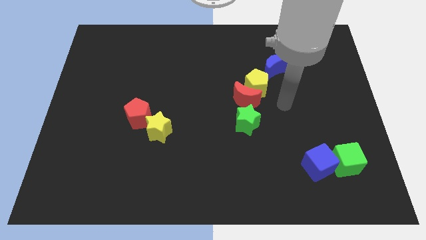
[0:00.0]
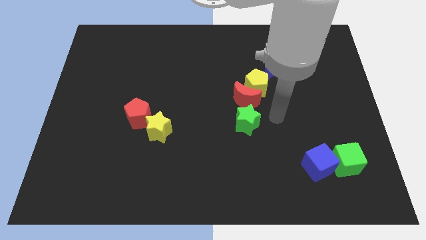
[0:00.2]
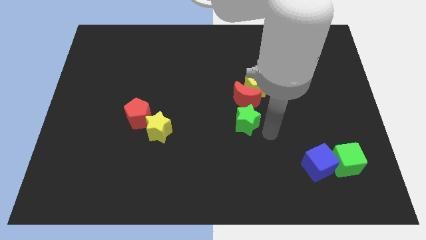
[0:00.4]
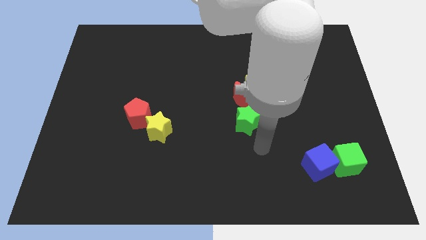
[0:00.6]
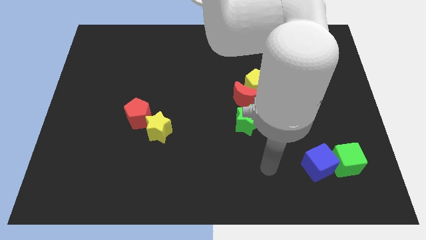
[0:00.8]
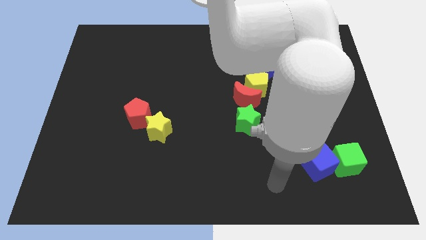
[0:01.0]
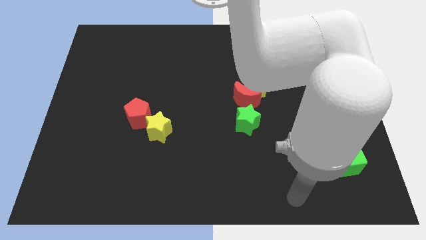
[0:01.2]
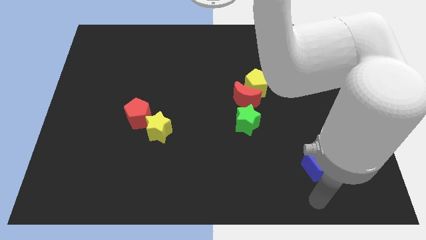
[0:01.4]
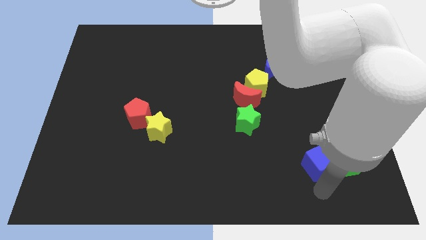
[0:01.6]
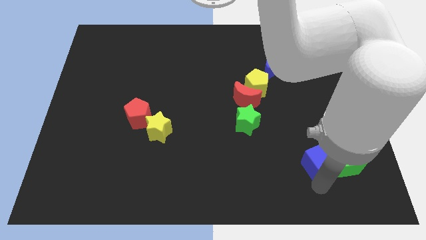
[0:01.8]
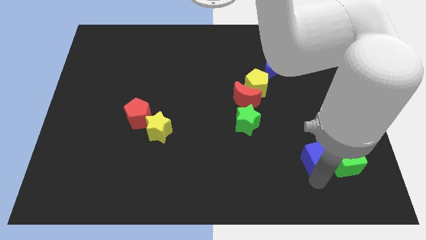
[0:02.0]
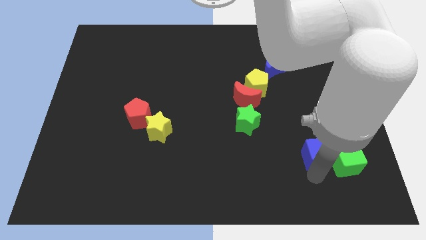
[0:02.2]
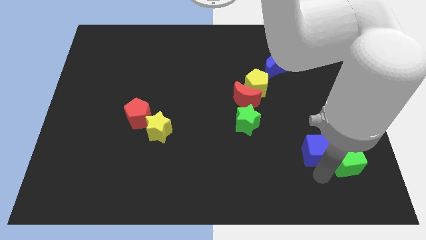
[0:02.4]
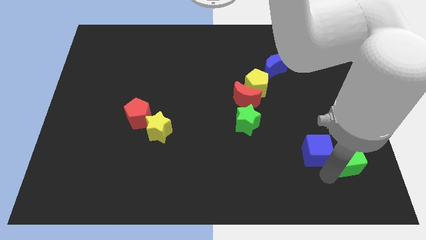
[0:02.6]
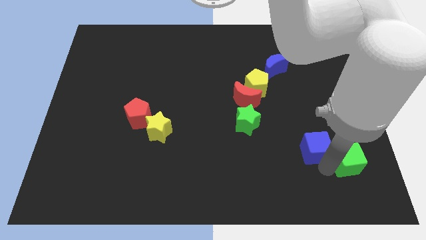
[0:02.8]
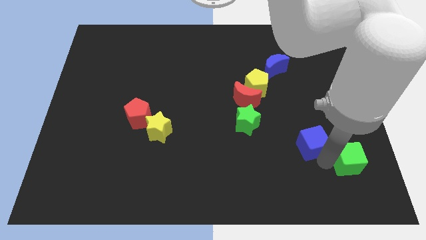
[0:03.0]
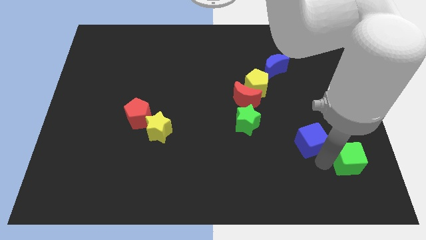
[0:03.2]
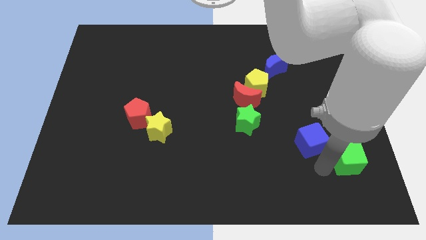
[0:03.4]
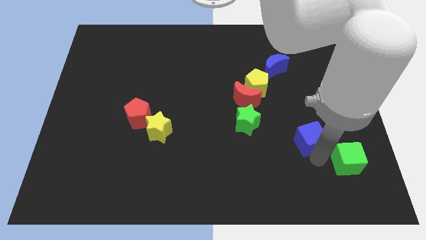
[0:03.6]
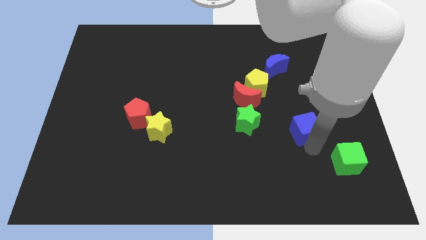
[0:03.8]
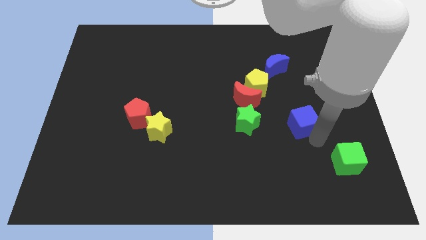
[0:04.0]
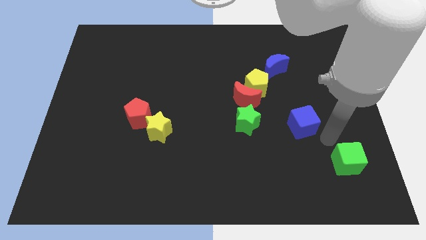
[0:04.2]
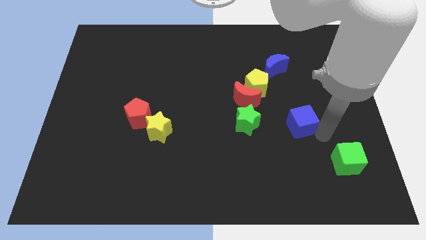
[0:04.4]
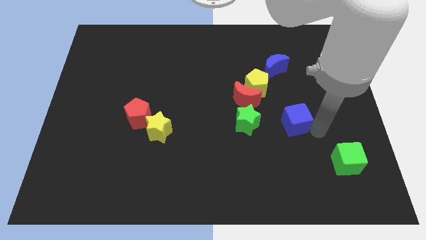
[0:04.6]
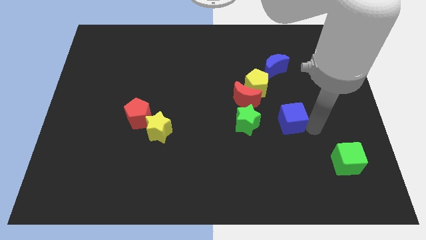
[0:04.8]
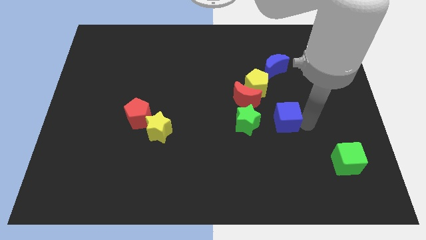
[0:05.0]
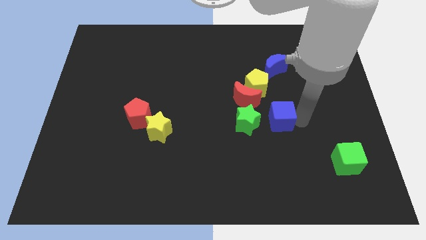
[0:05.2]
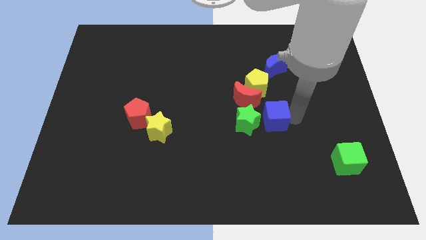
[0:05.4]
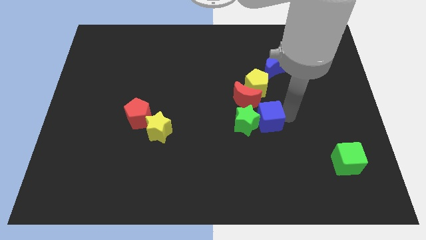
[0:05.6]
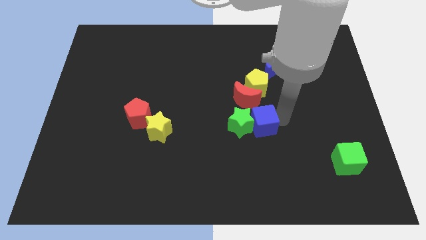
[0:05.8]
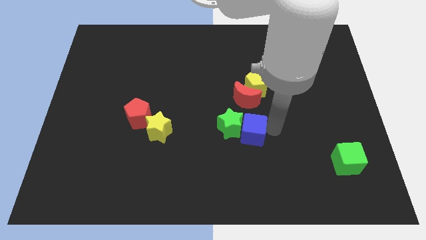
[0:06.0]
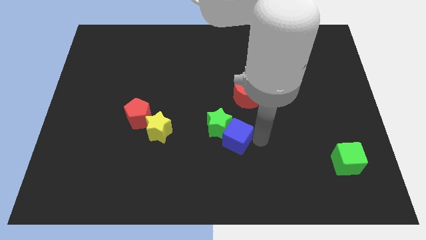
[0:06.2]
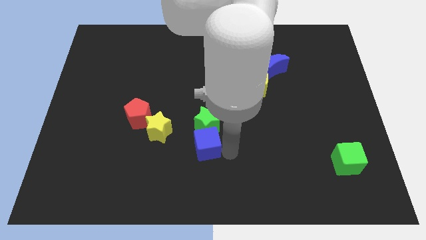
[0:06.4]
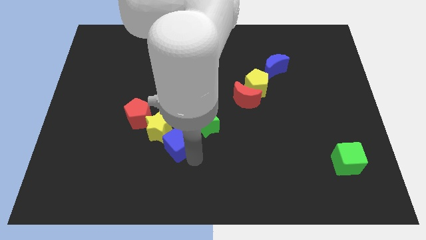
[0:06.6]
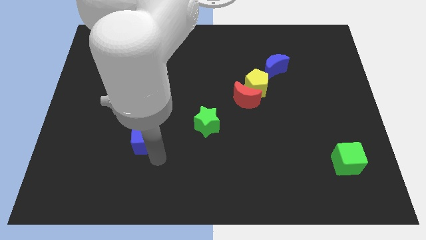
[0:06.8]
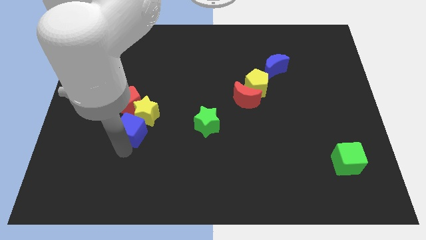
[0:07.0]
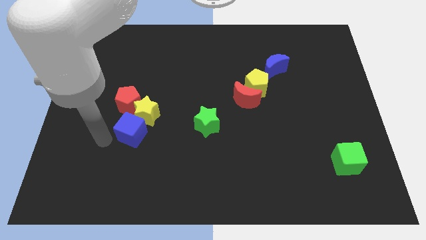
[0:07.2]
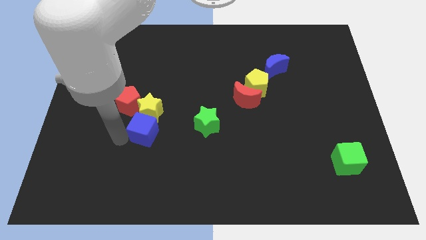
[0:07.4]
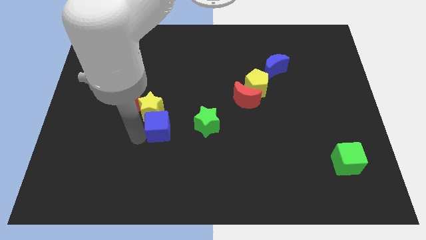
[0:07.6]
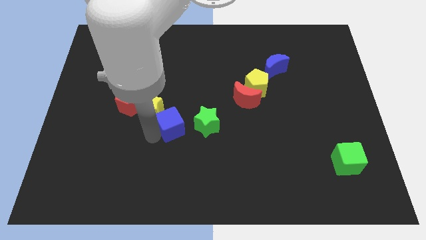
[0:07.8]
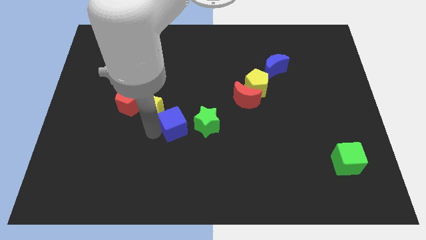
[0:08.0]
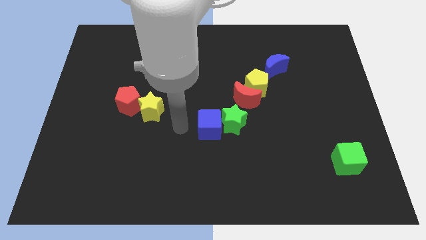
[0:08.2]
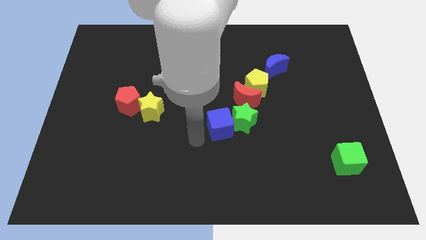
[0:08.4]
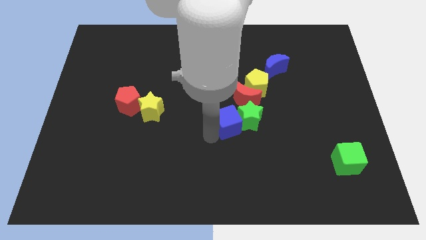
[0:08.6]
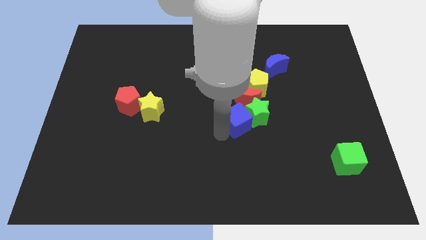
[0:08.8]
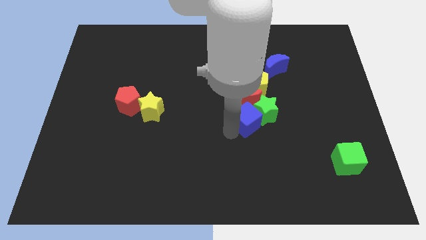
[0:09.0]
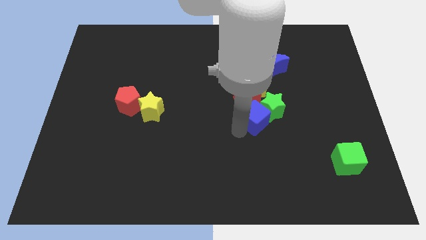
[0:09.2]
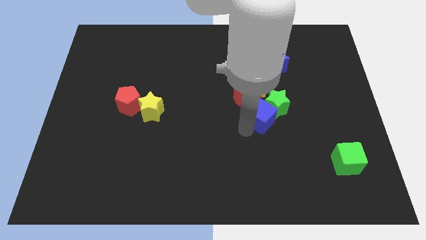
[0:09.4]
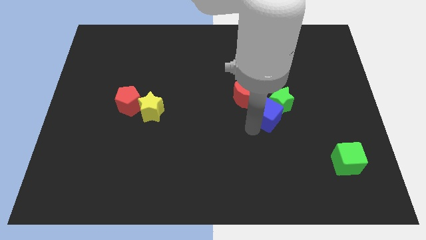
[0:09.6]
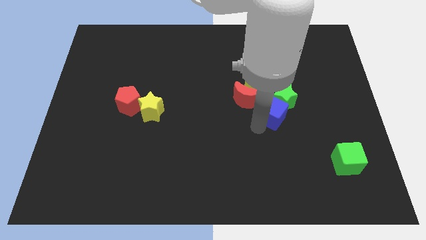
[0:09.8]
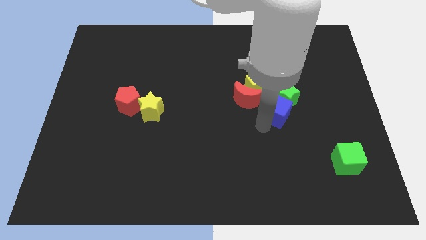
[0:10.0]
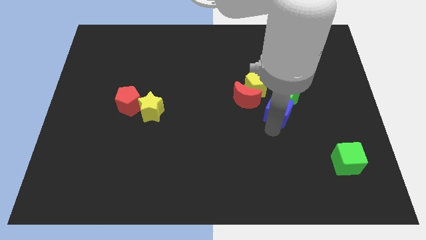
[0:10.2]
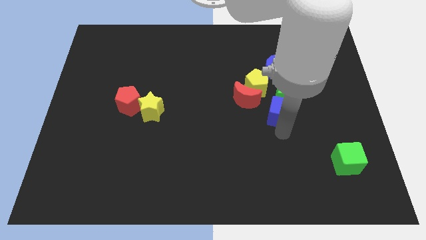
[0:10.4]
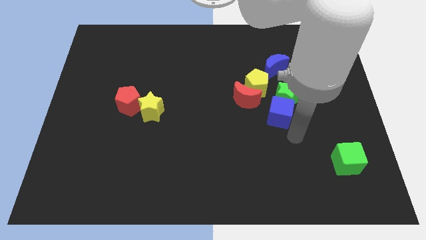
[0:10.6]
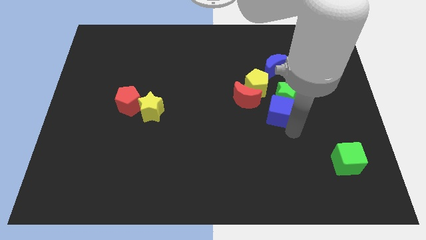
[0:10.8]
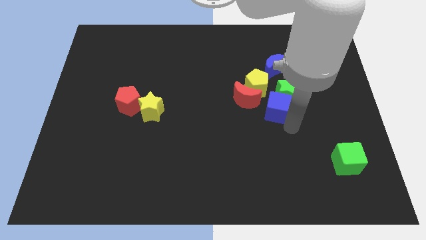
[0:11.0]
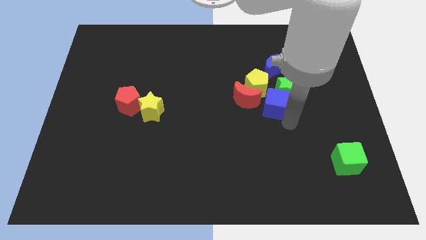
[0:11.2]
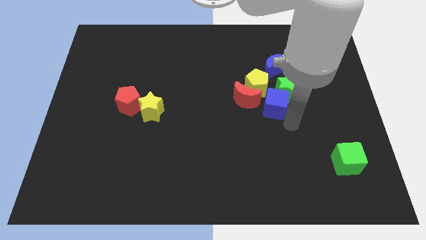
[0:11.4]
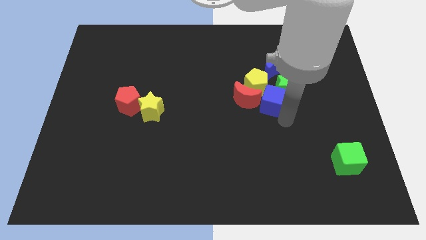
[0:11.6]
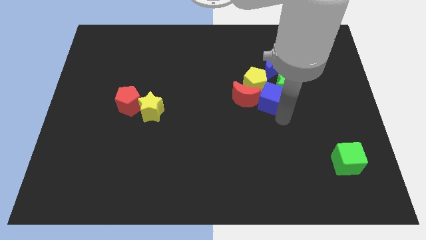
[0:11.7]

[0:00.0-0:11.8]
push the blue cube close to the yellow pentagon

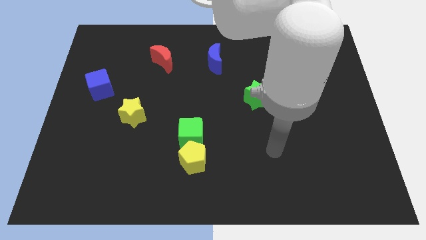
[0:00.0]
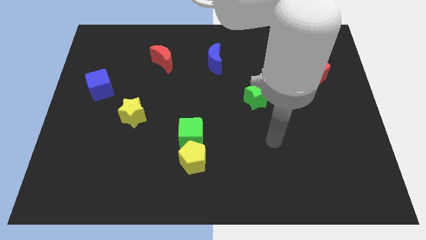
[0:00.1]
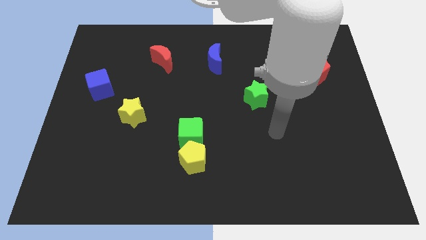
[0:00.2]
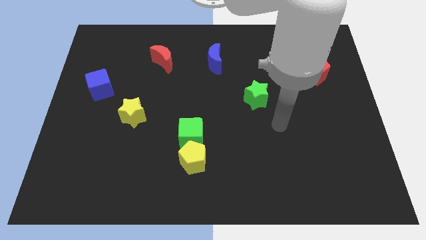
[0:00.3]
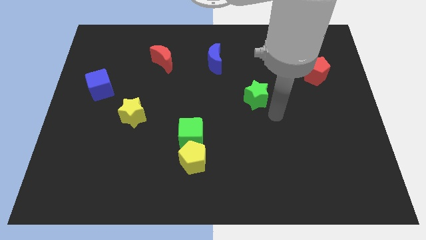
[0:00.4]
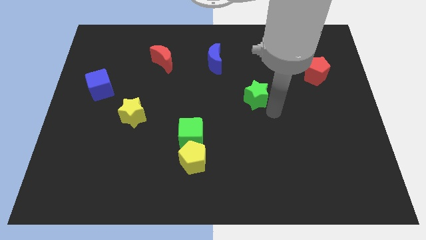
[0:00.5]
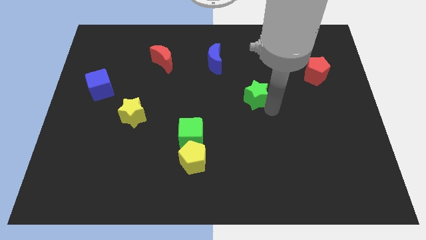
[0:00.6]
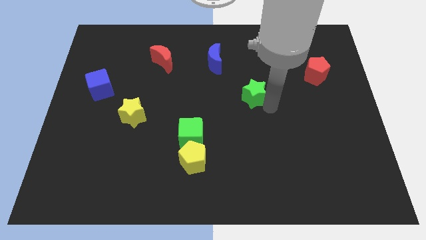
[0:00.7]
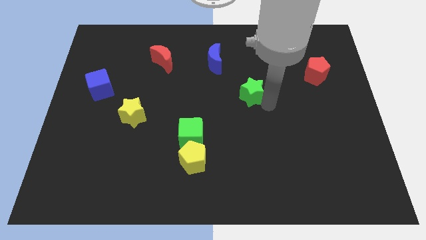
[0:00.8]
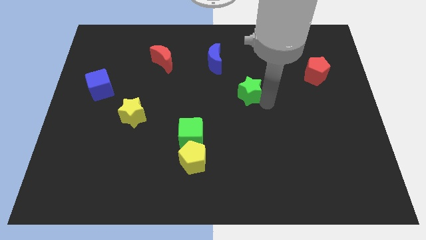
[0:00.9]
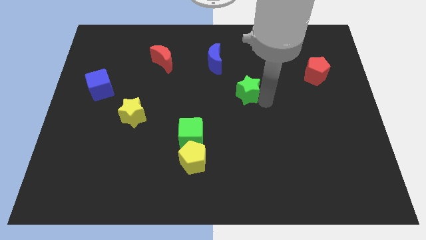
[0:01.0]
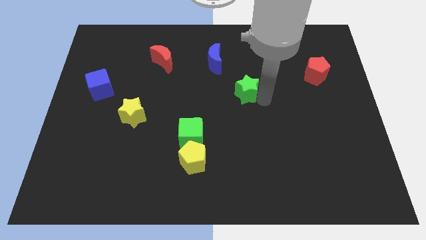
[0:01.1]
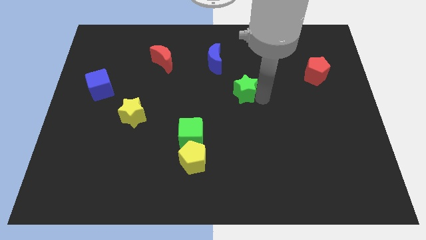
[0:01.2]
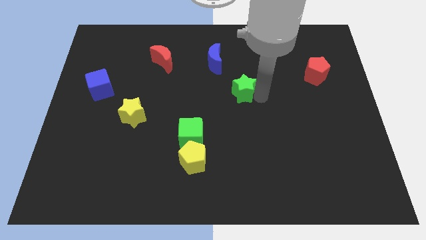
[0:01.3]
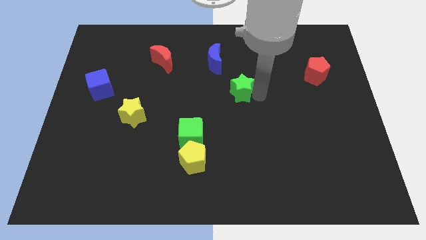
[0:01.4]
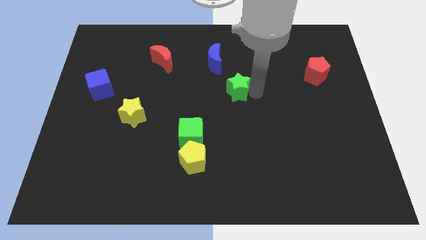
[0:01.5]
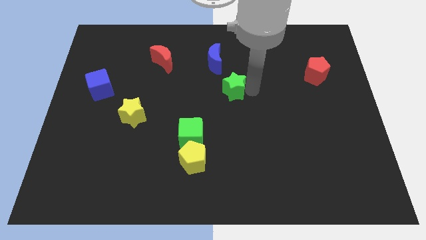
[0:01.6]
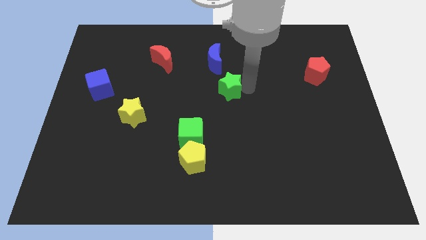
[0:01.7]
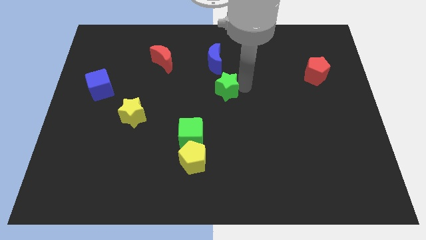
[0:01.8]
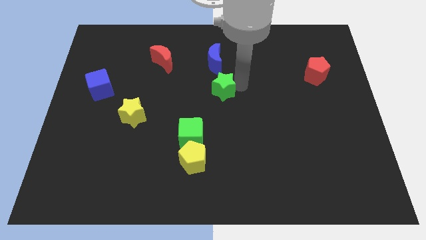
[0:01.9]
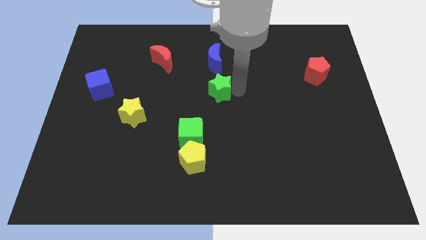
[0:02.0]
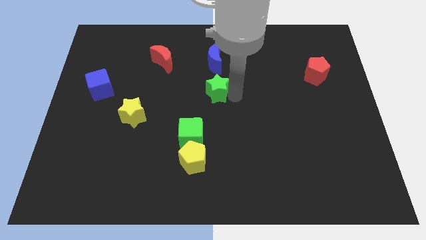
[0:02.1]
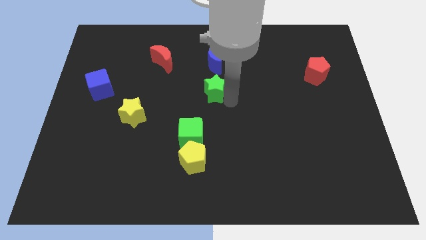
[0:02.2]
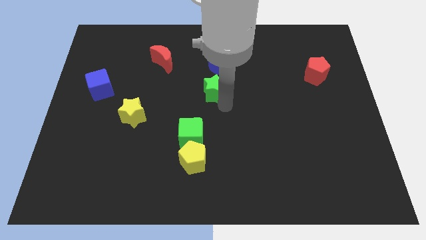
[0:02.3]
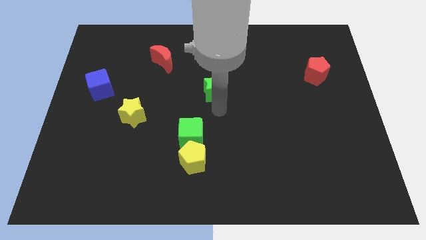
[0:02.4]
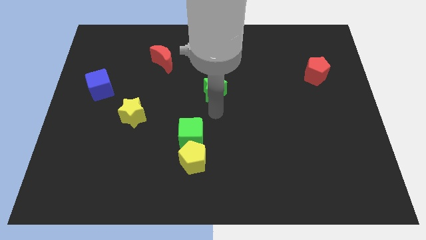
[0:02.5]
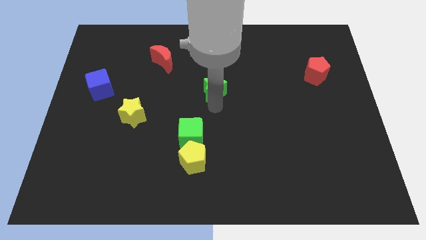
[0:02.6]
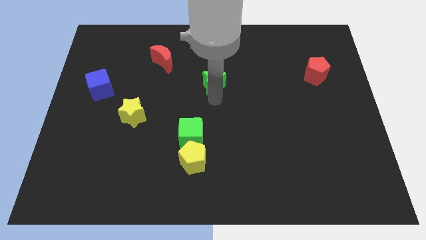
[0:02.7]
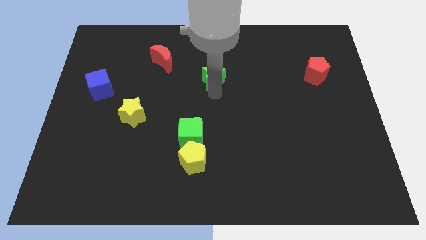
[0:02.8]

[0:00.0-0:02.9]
put the green star to the blue moon
